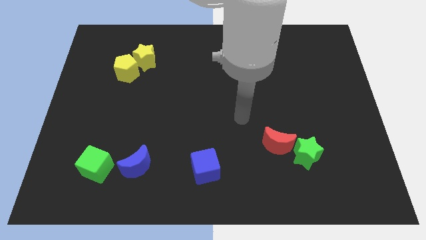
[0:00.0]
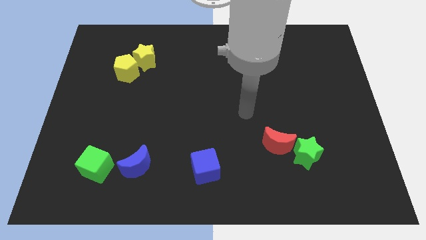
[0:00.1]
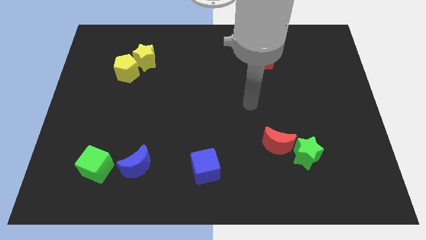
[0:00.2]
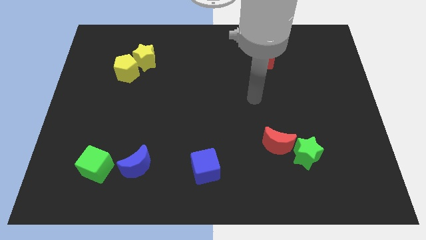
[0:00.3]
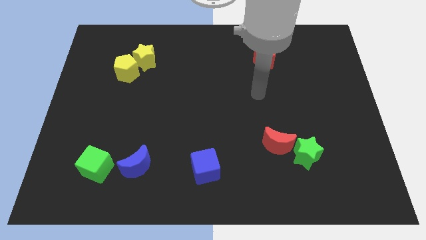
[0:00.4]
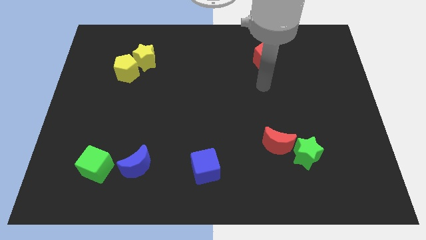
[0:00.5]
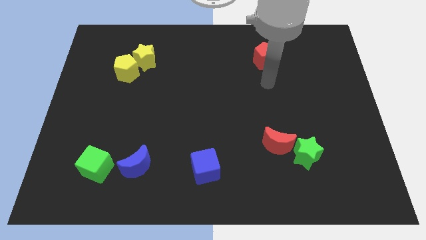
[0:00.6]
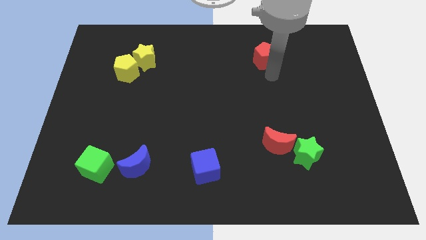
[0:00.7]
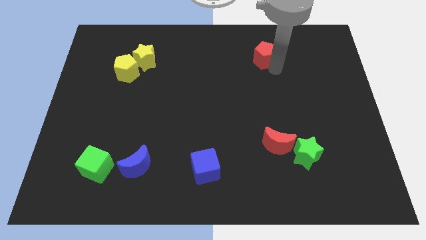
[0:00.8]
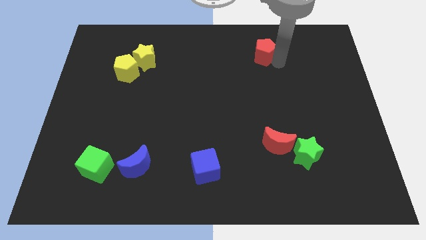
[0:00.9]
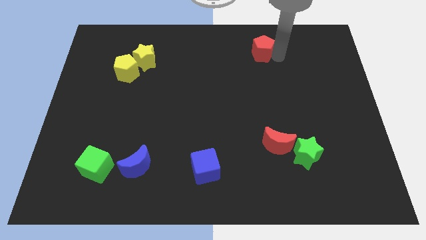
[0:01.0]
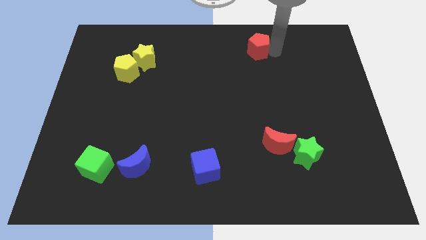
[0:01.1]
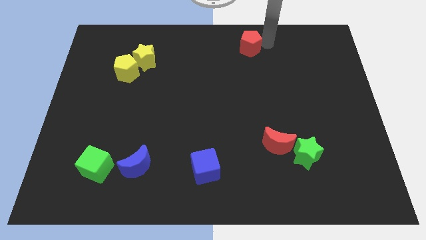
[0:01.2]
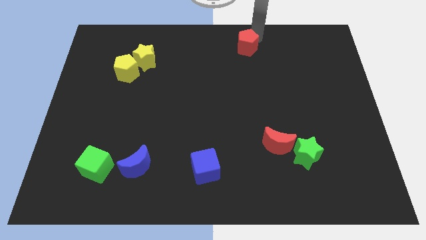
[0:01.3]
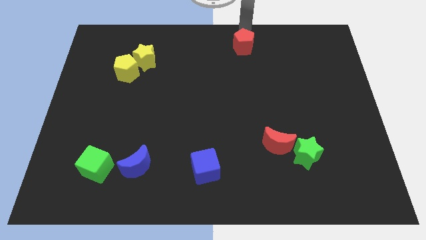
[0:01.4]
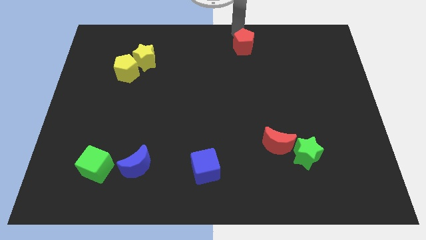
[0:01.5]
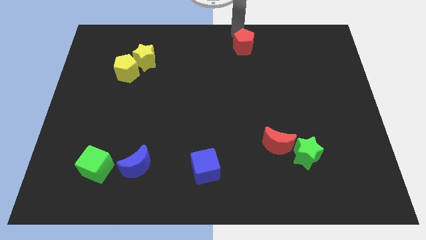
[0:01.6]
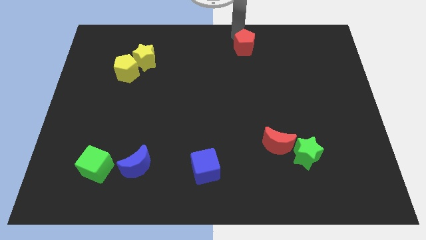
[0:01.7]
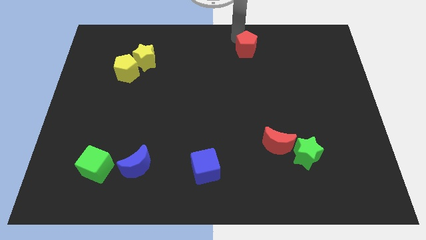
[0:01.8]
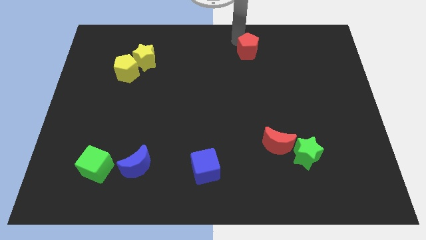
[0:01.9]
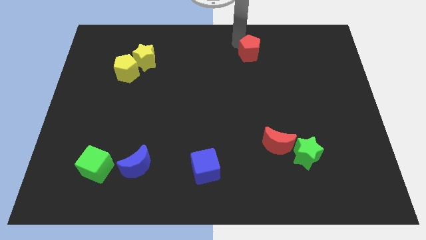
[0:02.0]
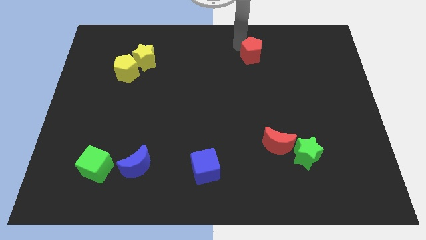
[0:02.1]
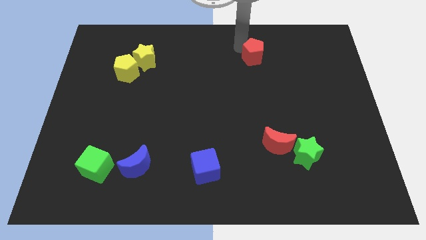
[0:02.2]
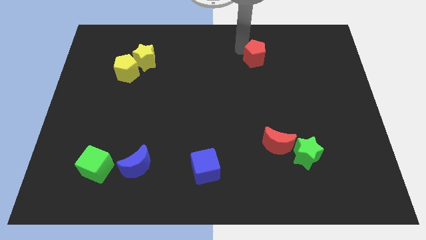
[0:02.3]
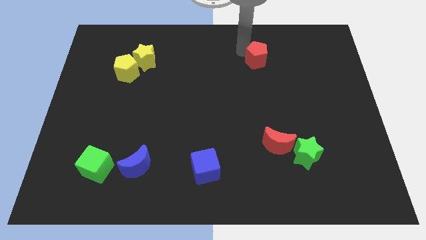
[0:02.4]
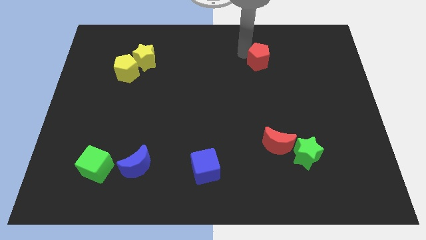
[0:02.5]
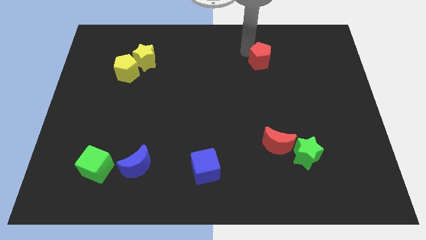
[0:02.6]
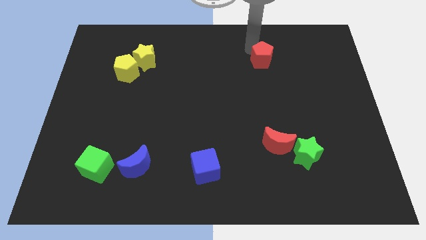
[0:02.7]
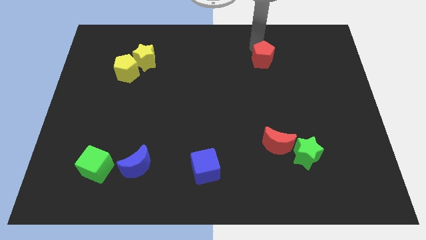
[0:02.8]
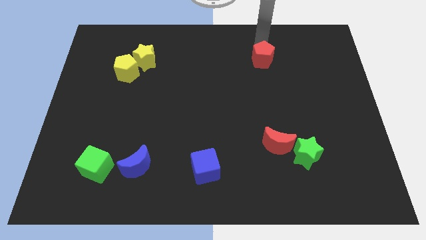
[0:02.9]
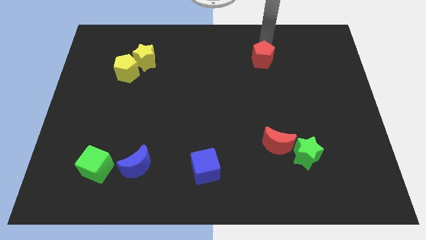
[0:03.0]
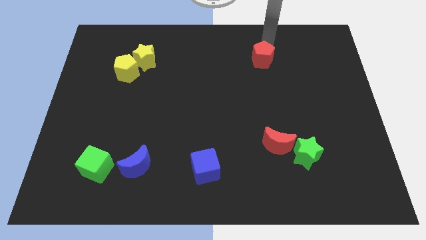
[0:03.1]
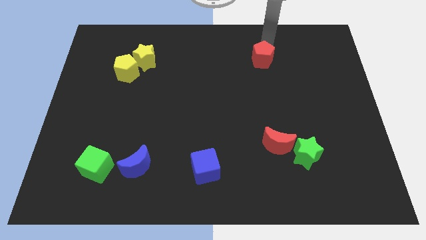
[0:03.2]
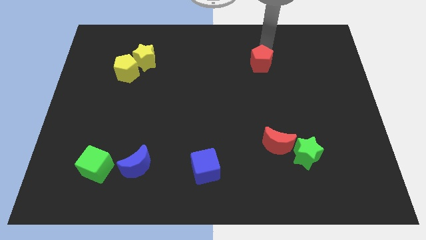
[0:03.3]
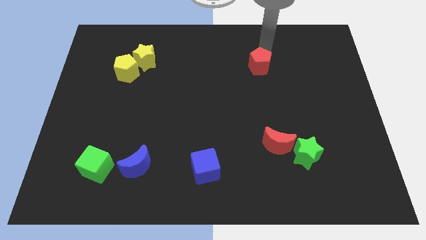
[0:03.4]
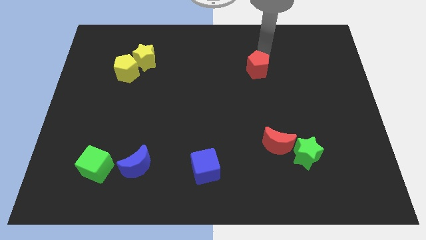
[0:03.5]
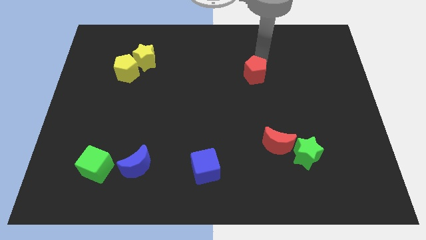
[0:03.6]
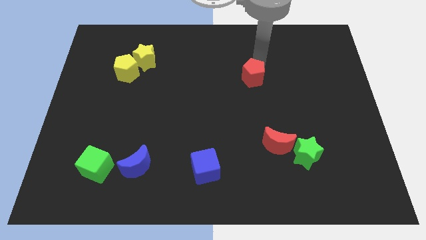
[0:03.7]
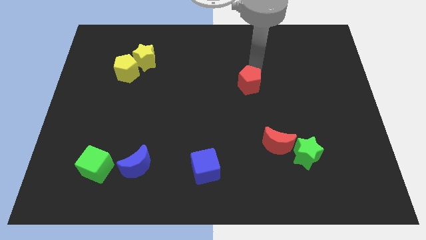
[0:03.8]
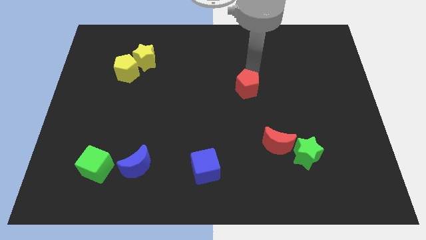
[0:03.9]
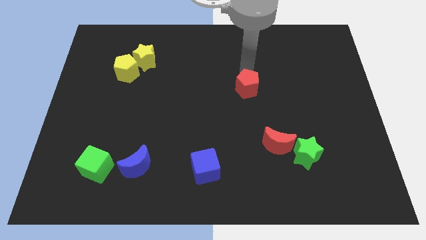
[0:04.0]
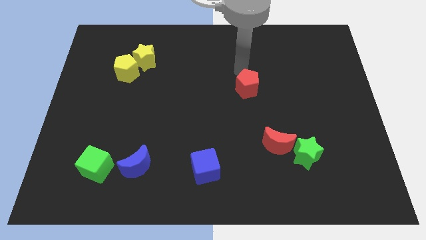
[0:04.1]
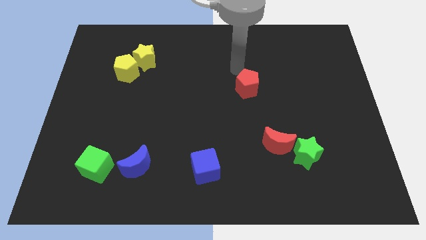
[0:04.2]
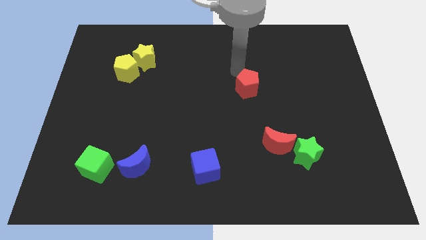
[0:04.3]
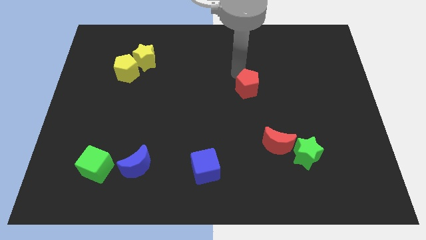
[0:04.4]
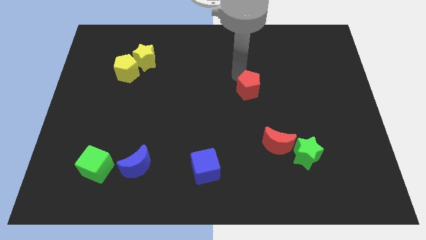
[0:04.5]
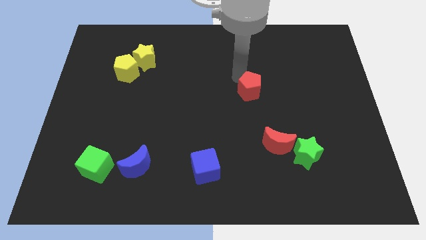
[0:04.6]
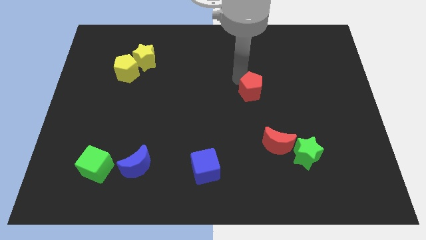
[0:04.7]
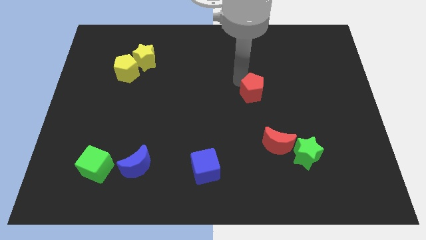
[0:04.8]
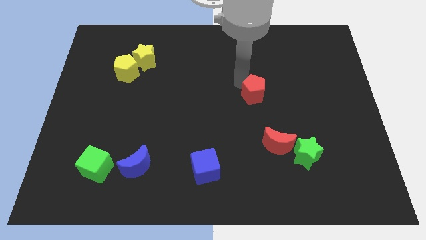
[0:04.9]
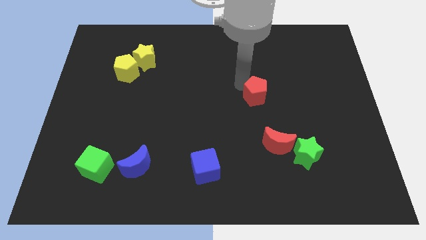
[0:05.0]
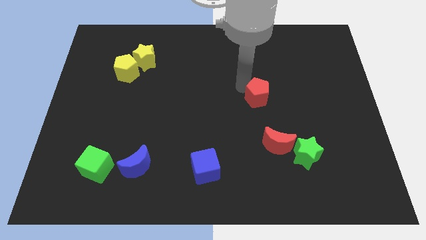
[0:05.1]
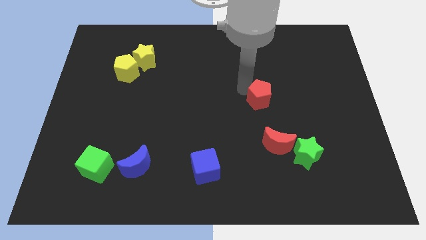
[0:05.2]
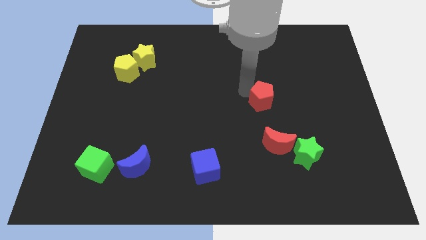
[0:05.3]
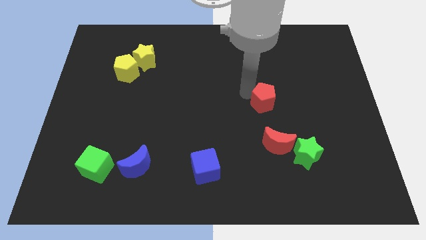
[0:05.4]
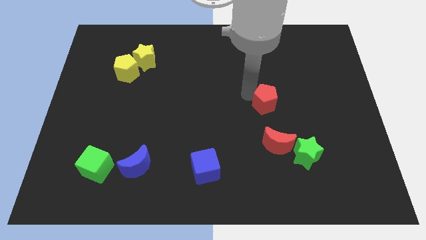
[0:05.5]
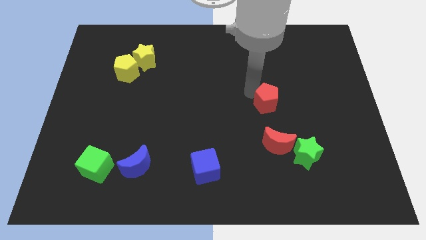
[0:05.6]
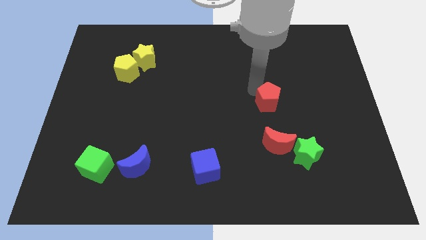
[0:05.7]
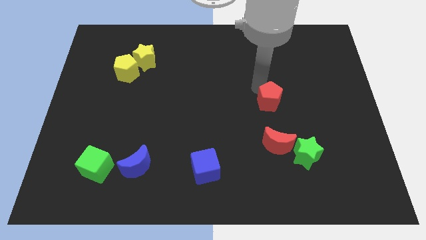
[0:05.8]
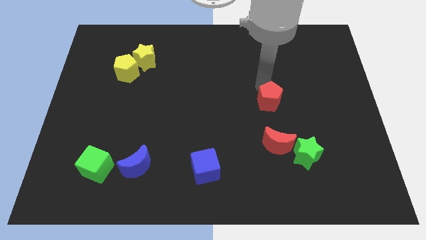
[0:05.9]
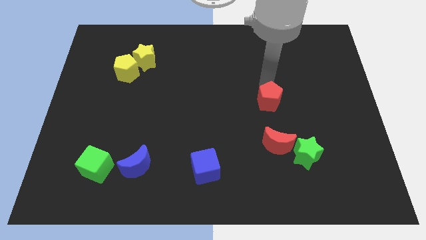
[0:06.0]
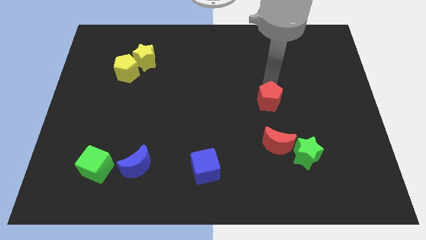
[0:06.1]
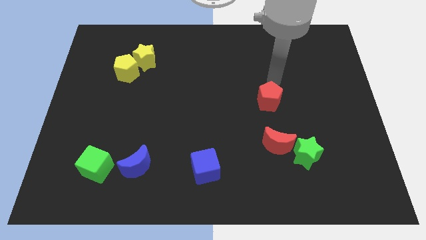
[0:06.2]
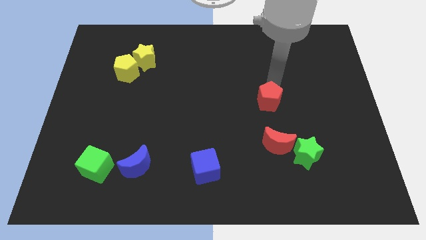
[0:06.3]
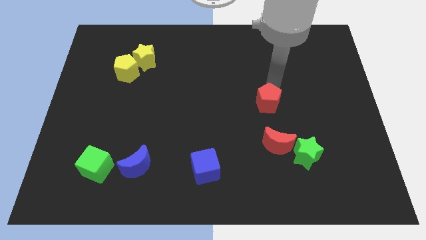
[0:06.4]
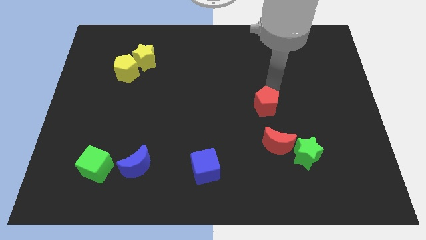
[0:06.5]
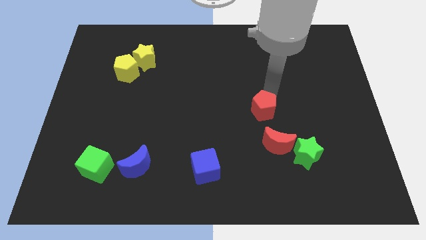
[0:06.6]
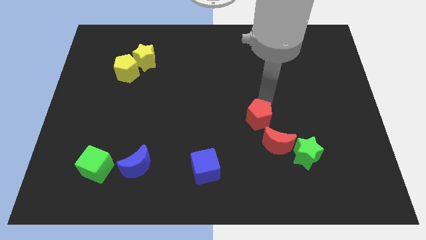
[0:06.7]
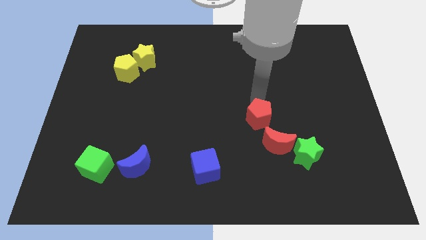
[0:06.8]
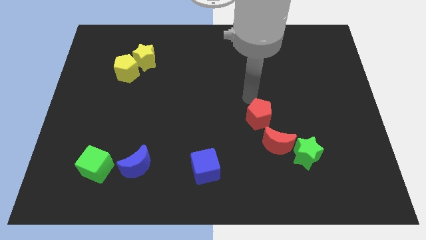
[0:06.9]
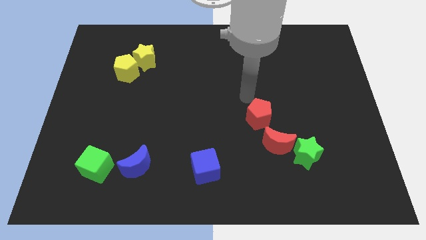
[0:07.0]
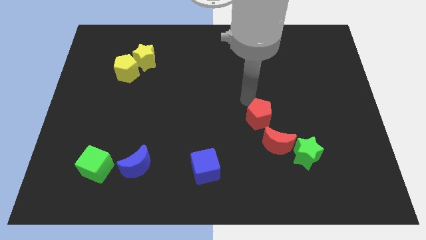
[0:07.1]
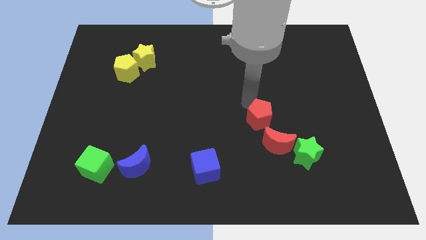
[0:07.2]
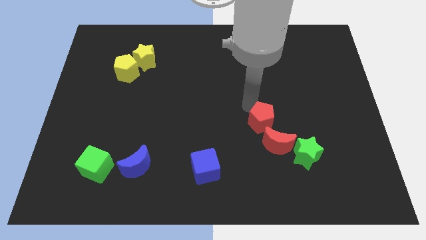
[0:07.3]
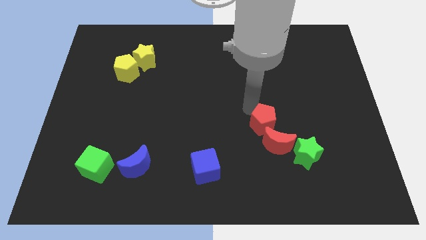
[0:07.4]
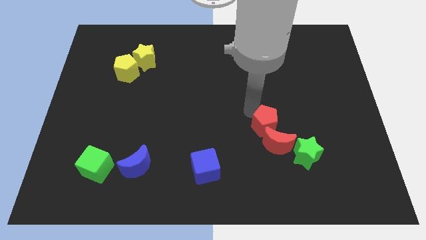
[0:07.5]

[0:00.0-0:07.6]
slide the red pentagon to the red moon
